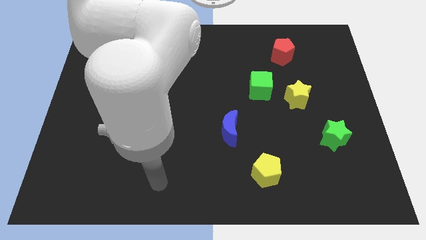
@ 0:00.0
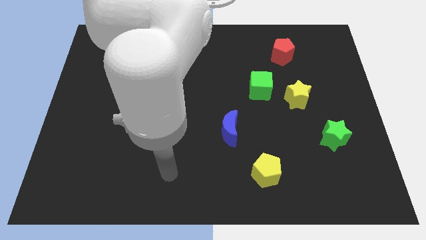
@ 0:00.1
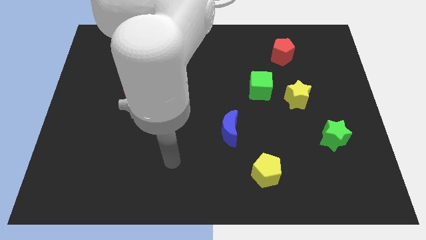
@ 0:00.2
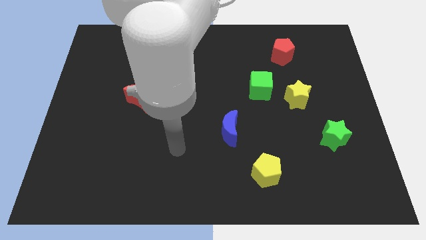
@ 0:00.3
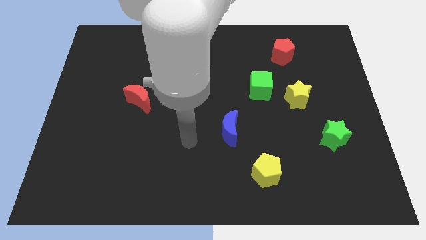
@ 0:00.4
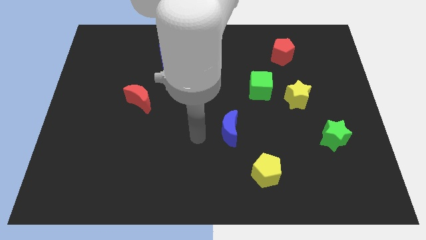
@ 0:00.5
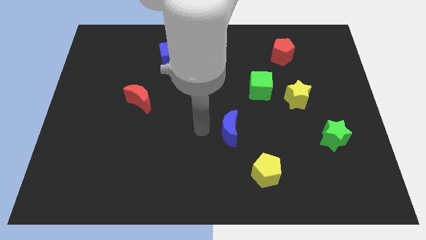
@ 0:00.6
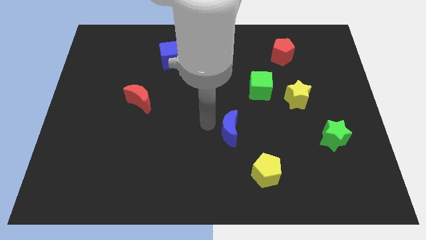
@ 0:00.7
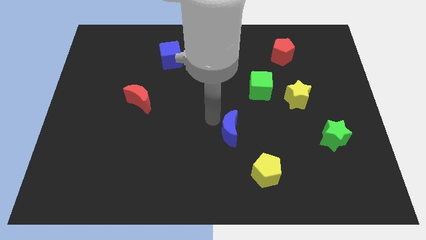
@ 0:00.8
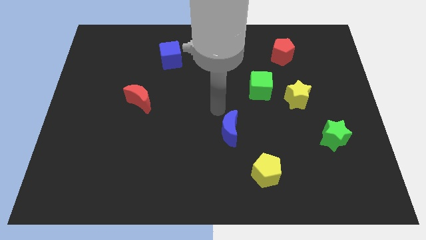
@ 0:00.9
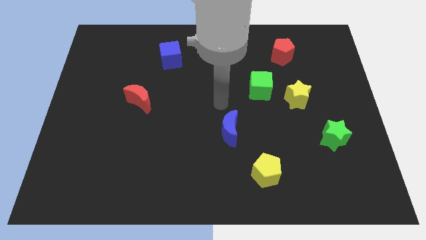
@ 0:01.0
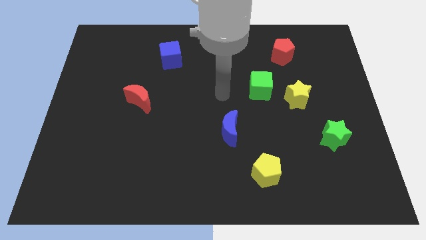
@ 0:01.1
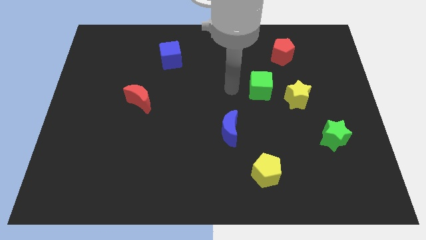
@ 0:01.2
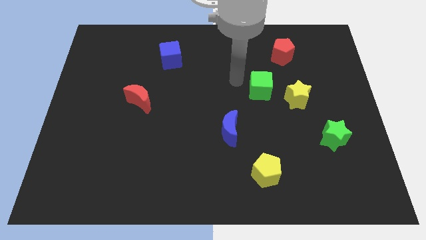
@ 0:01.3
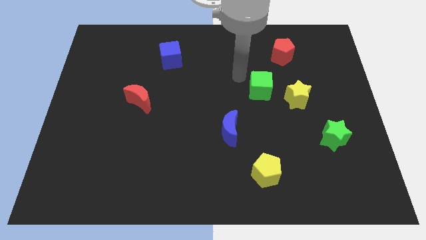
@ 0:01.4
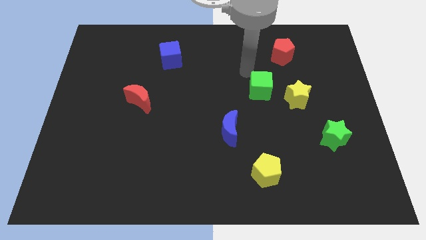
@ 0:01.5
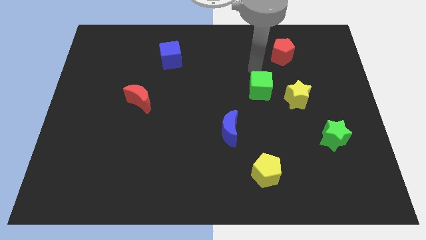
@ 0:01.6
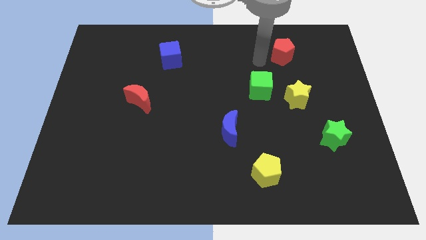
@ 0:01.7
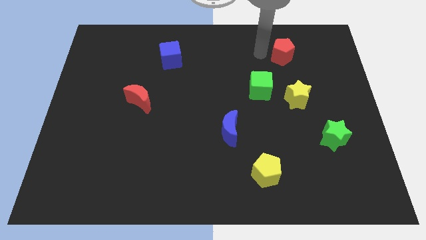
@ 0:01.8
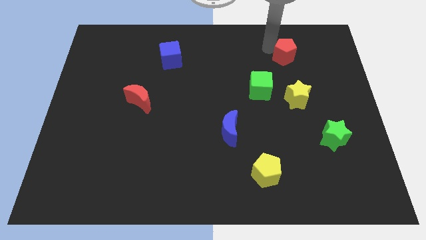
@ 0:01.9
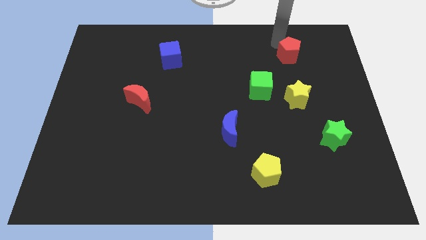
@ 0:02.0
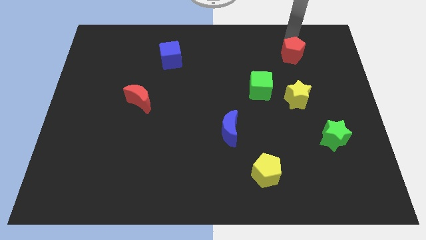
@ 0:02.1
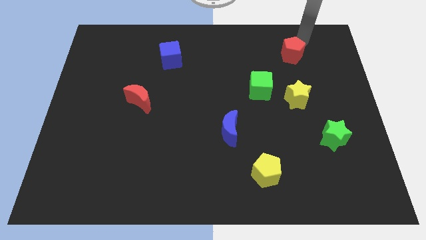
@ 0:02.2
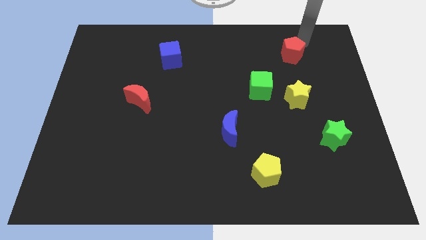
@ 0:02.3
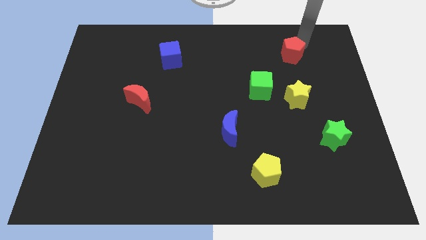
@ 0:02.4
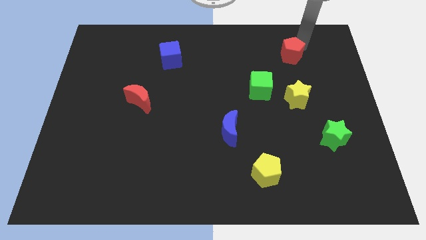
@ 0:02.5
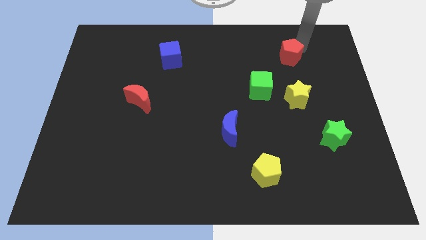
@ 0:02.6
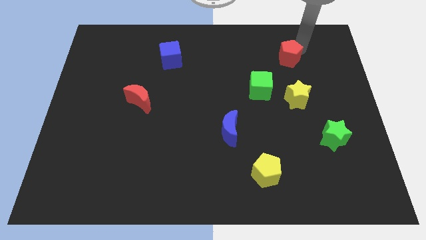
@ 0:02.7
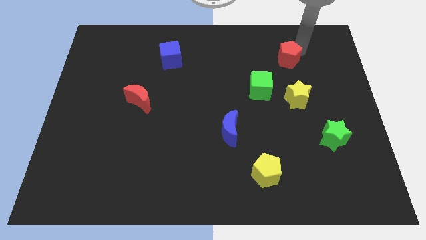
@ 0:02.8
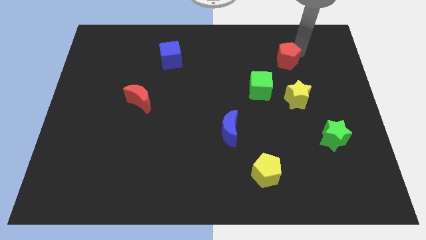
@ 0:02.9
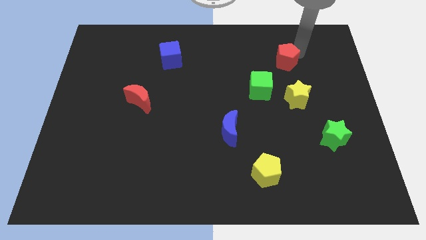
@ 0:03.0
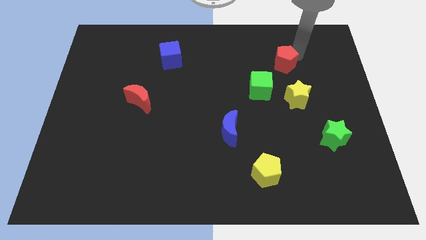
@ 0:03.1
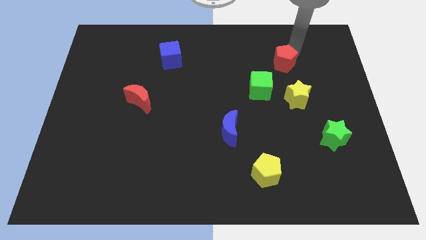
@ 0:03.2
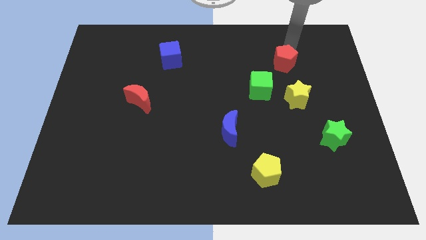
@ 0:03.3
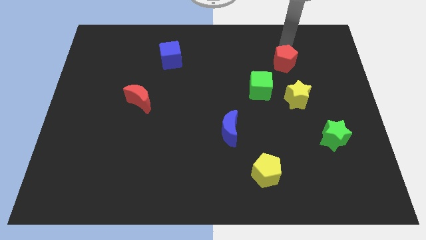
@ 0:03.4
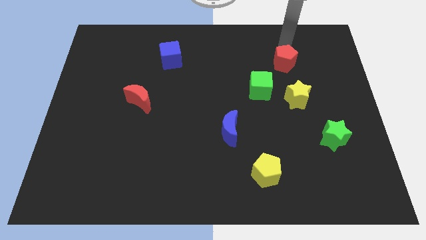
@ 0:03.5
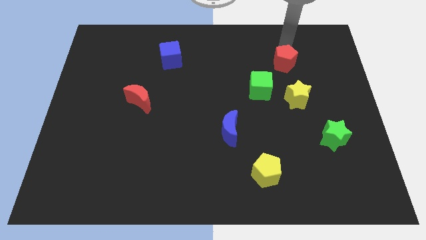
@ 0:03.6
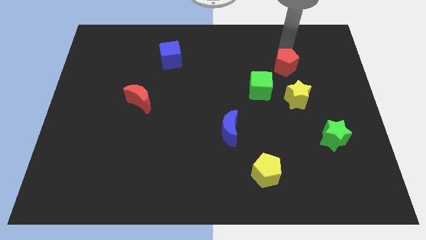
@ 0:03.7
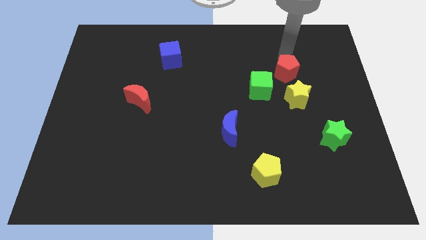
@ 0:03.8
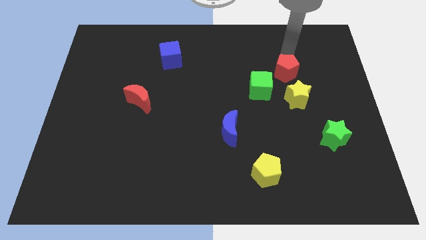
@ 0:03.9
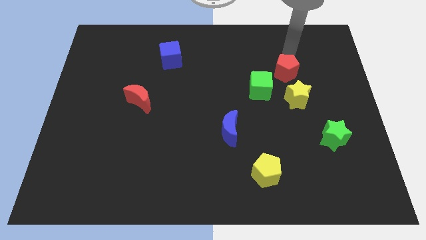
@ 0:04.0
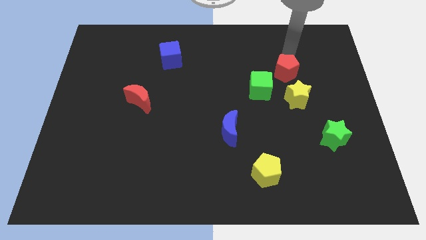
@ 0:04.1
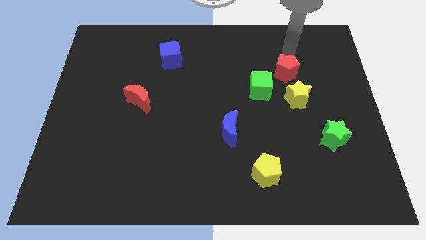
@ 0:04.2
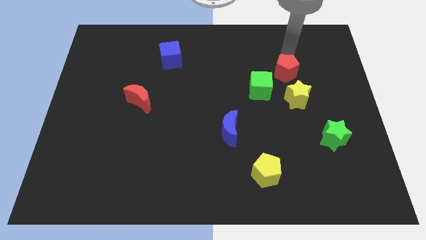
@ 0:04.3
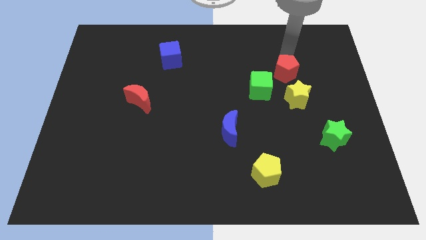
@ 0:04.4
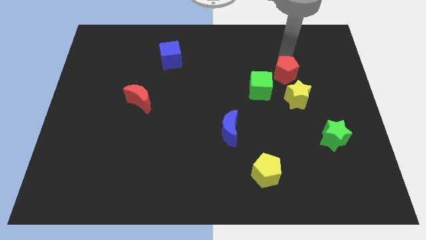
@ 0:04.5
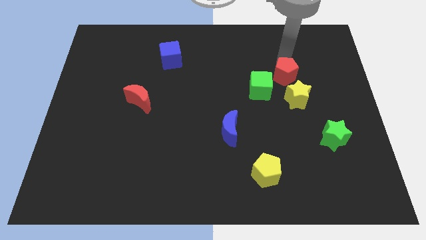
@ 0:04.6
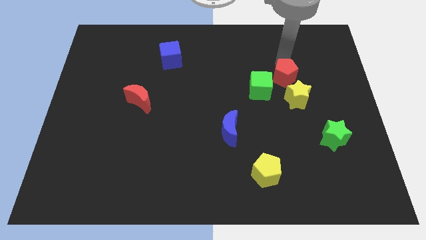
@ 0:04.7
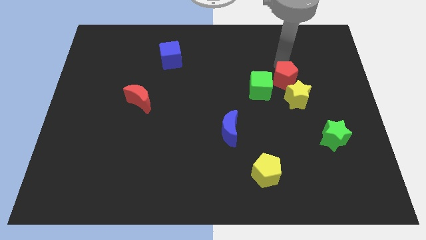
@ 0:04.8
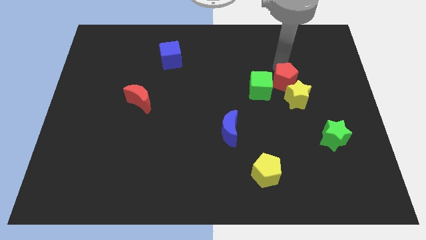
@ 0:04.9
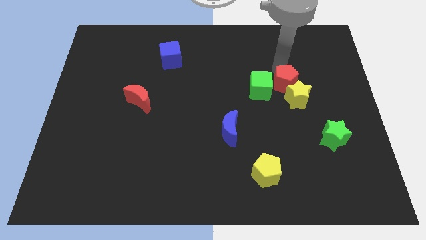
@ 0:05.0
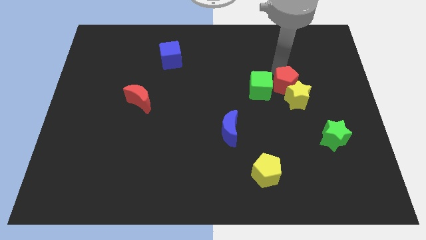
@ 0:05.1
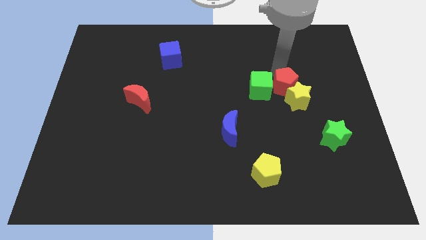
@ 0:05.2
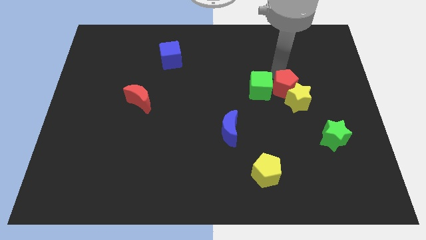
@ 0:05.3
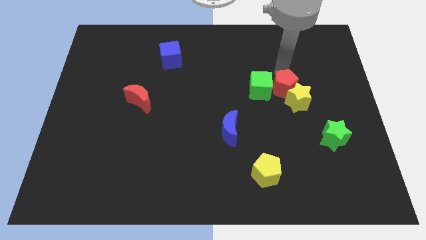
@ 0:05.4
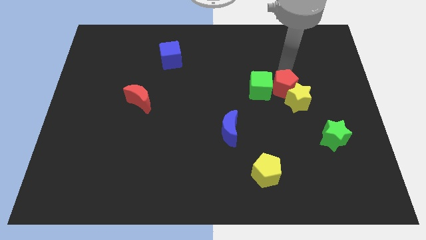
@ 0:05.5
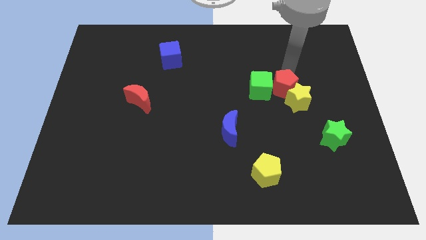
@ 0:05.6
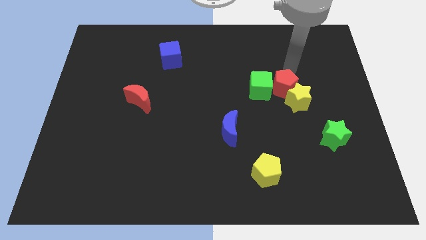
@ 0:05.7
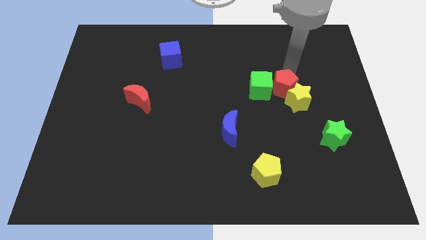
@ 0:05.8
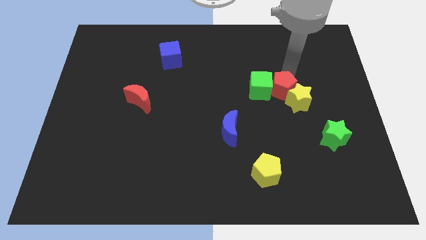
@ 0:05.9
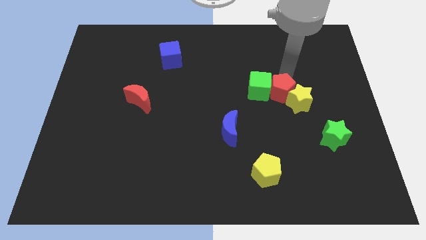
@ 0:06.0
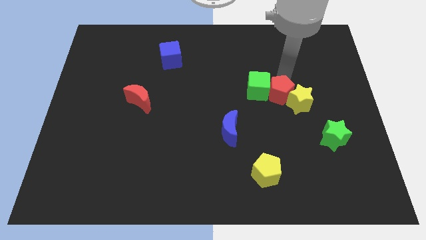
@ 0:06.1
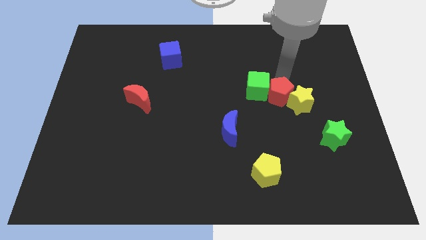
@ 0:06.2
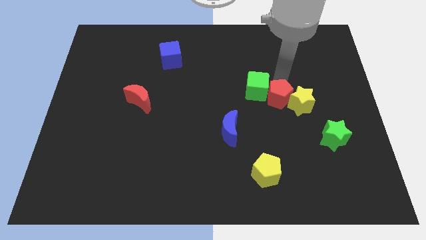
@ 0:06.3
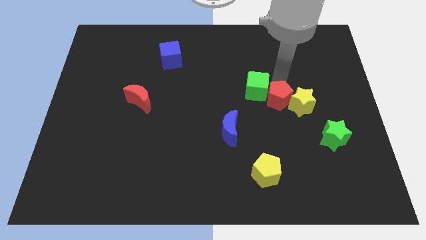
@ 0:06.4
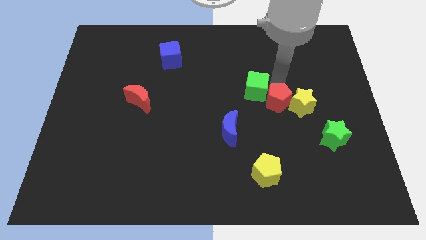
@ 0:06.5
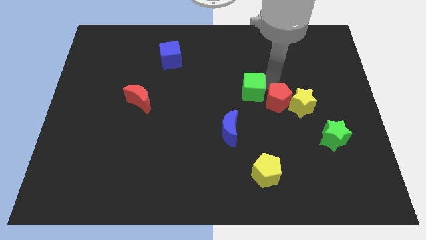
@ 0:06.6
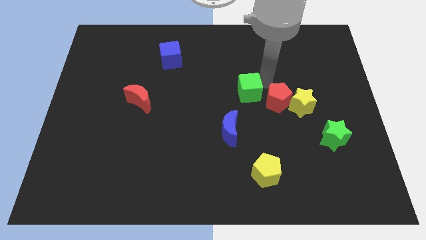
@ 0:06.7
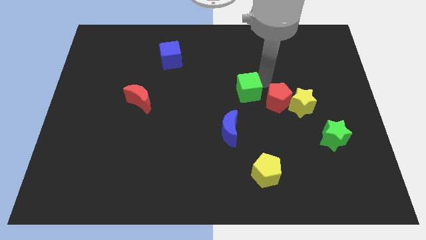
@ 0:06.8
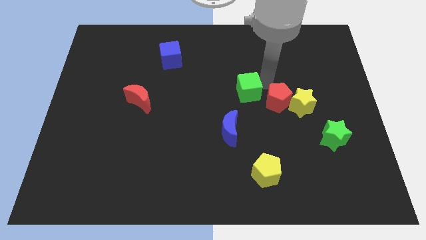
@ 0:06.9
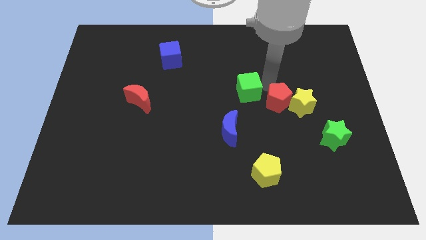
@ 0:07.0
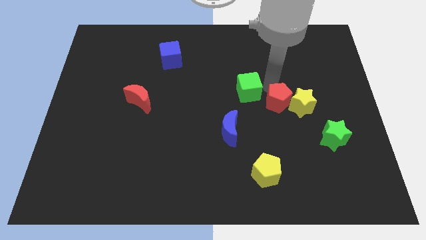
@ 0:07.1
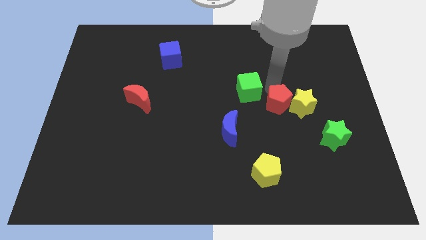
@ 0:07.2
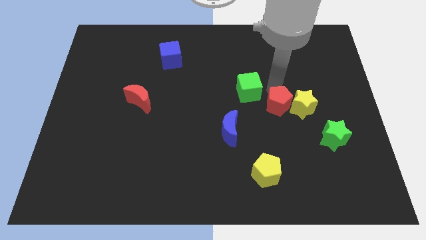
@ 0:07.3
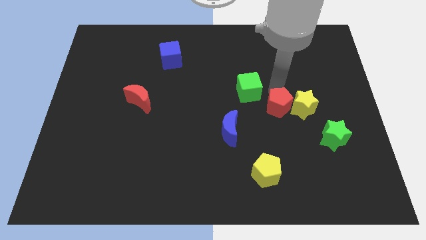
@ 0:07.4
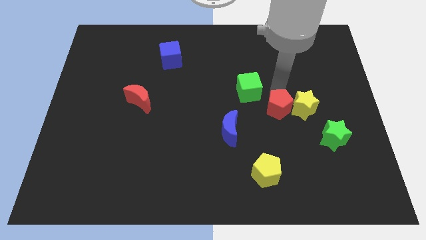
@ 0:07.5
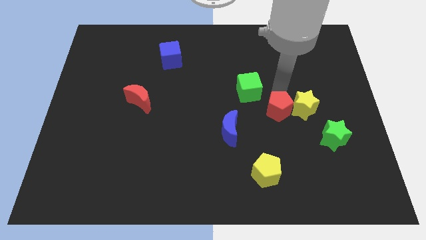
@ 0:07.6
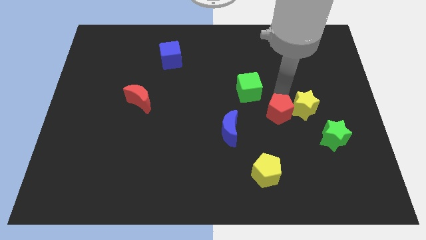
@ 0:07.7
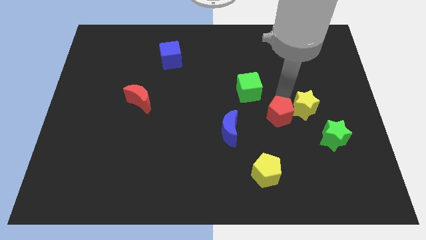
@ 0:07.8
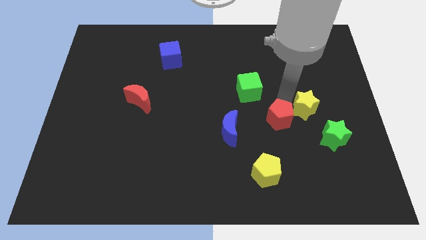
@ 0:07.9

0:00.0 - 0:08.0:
push the red pentagon down
